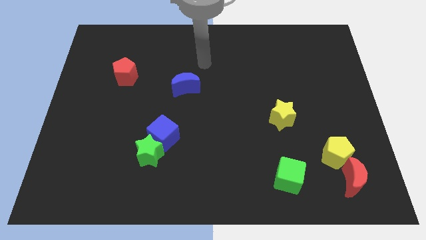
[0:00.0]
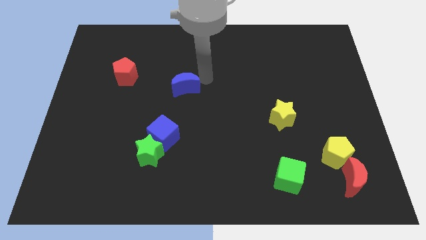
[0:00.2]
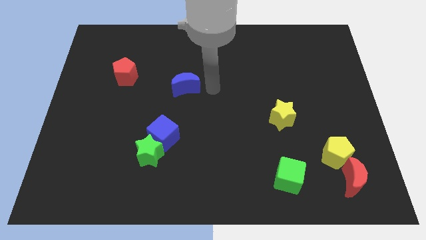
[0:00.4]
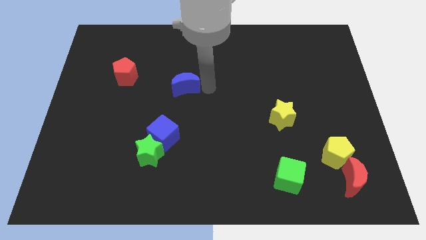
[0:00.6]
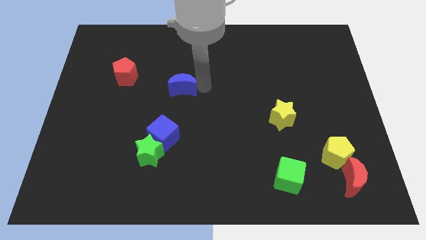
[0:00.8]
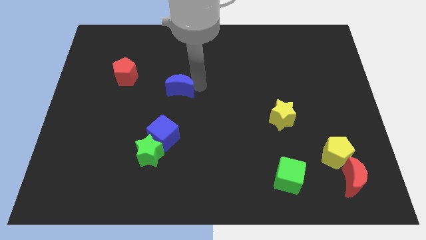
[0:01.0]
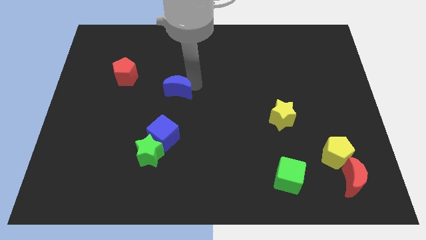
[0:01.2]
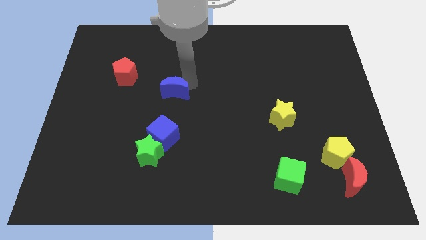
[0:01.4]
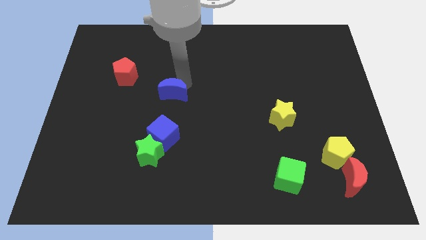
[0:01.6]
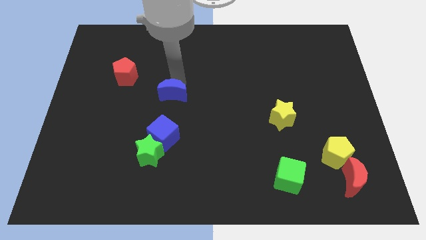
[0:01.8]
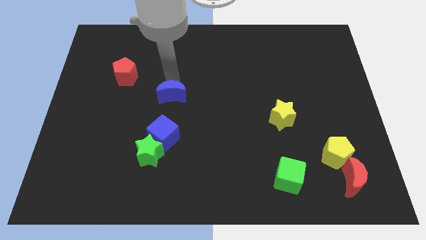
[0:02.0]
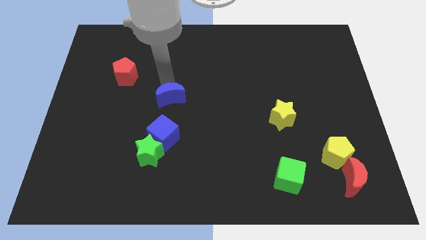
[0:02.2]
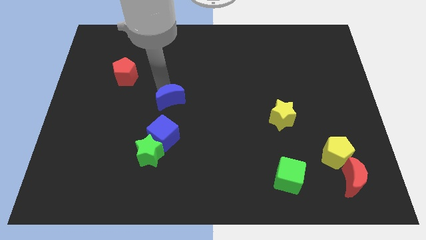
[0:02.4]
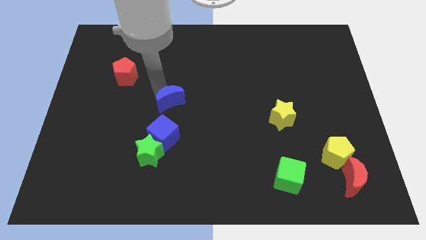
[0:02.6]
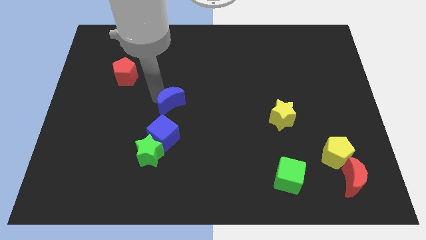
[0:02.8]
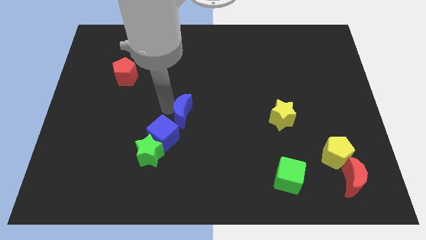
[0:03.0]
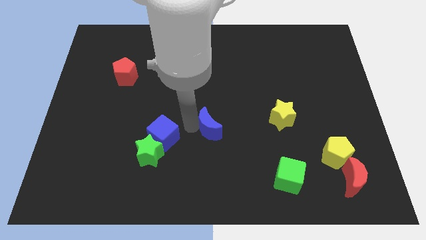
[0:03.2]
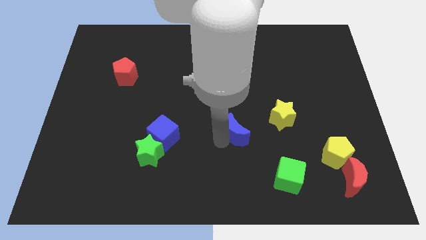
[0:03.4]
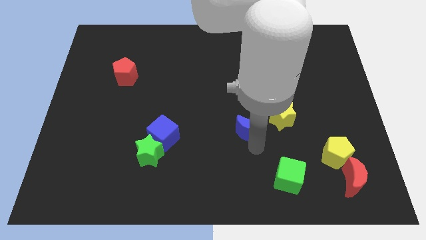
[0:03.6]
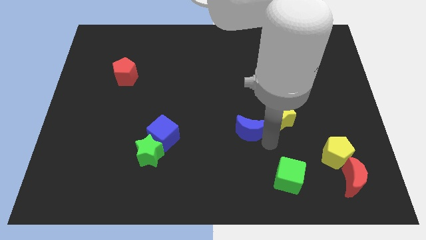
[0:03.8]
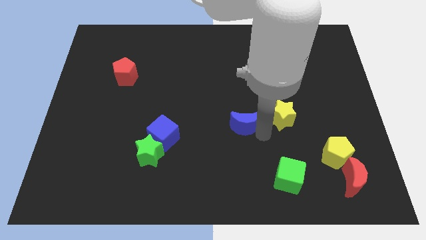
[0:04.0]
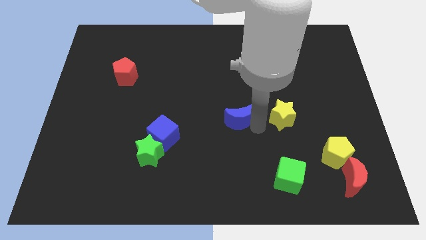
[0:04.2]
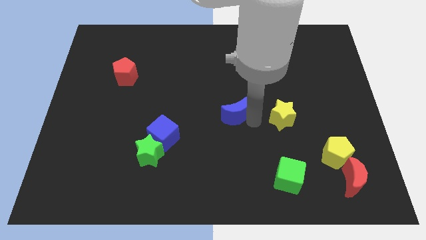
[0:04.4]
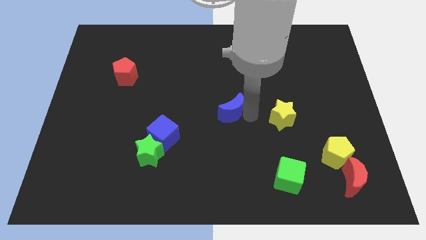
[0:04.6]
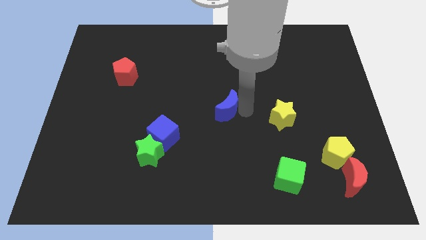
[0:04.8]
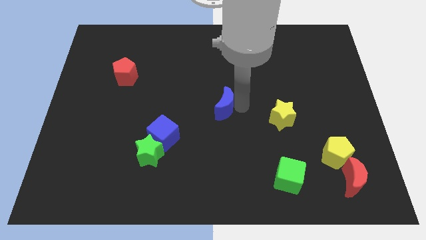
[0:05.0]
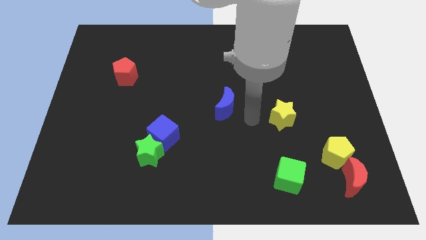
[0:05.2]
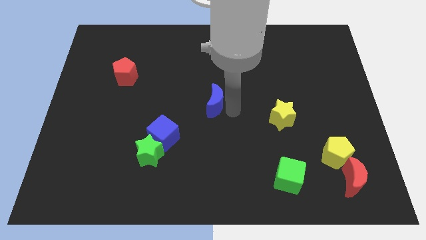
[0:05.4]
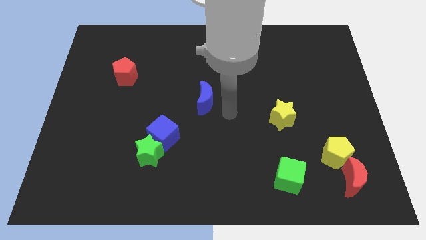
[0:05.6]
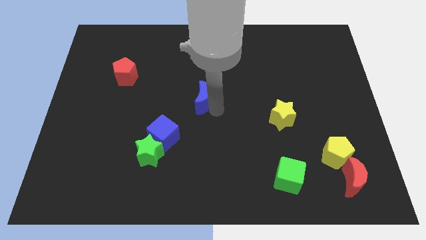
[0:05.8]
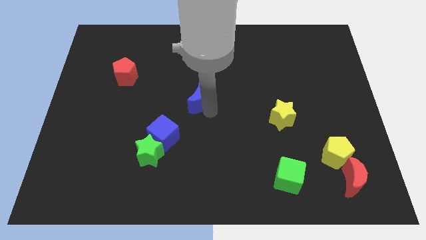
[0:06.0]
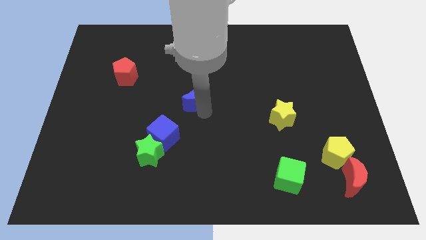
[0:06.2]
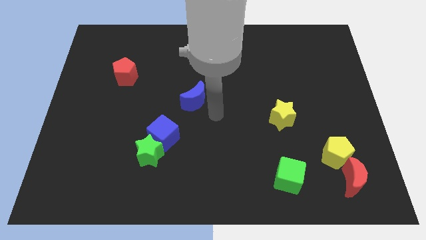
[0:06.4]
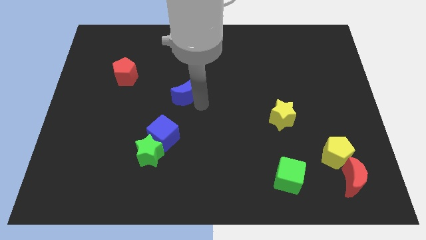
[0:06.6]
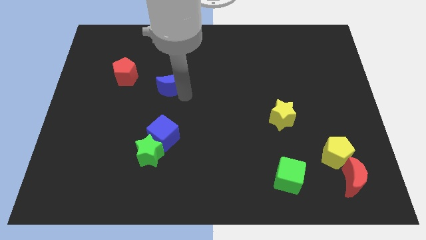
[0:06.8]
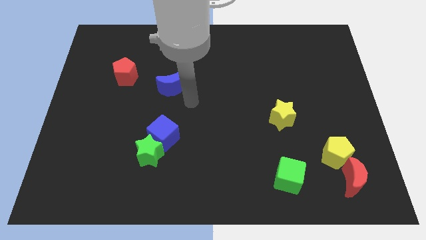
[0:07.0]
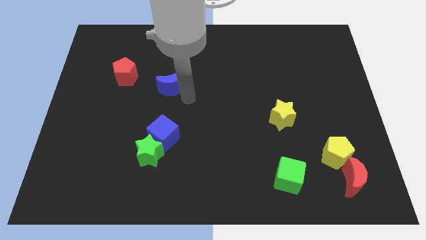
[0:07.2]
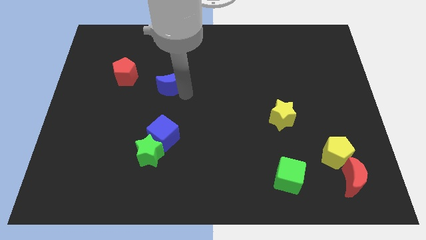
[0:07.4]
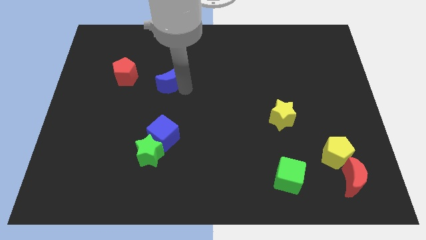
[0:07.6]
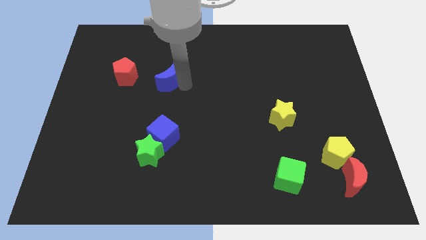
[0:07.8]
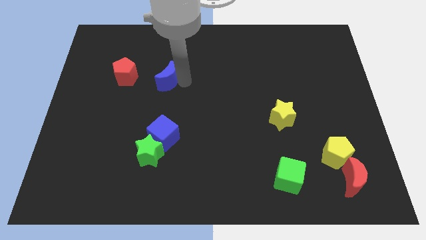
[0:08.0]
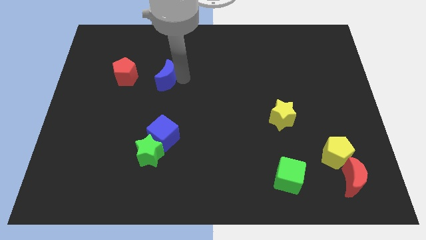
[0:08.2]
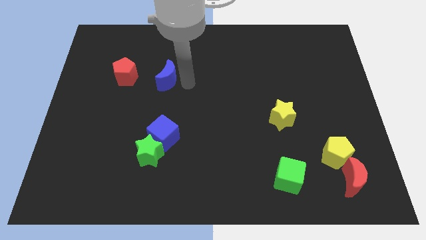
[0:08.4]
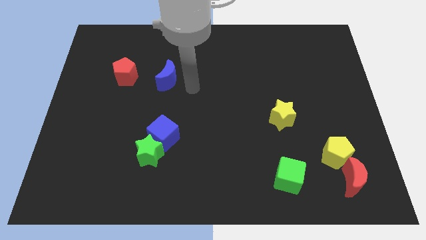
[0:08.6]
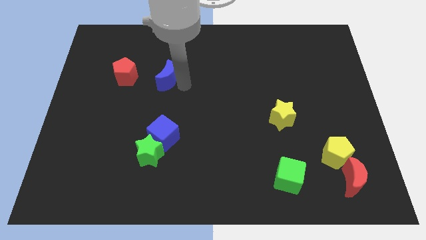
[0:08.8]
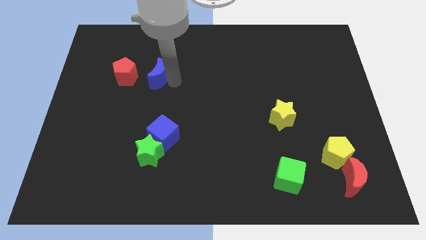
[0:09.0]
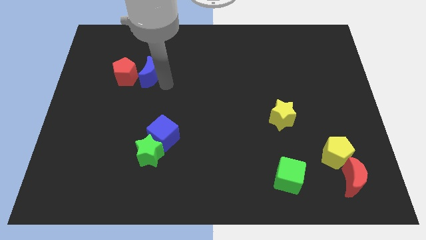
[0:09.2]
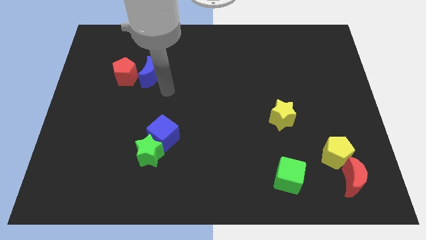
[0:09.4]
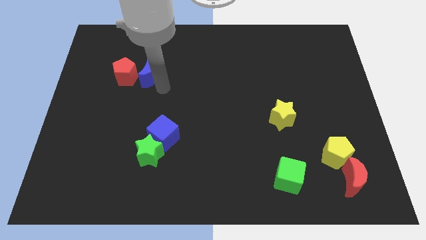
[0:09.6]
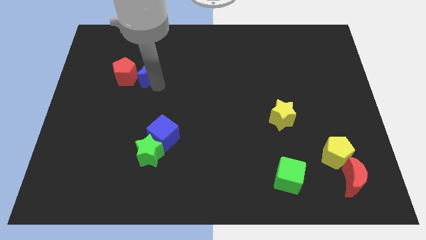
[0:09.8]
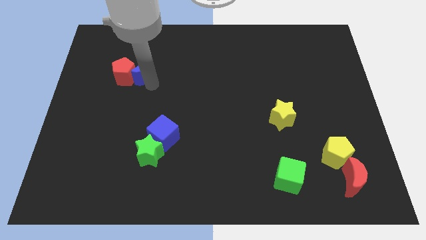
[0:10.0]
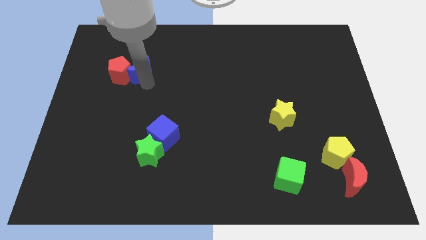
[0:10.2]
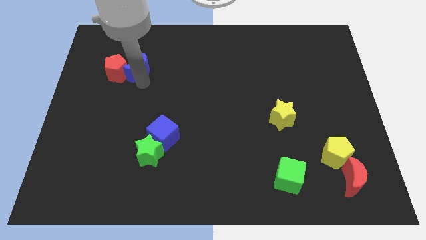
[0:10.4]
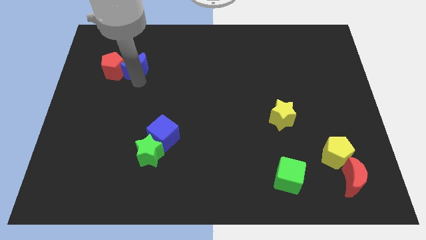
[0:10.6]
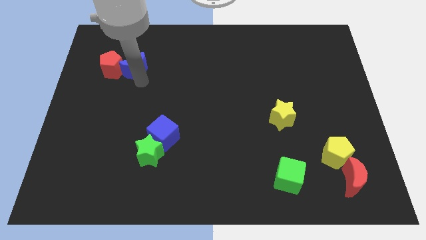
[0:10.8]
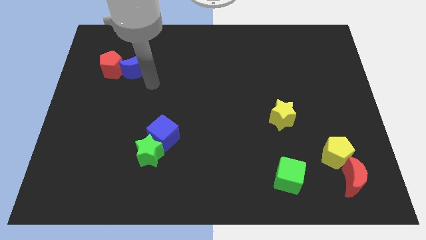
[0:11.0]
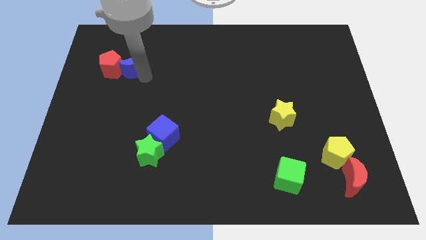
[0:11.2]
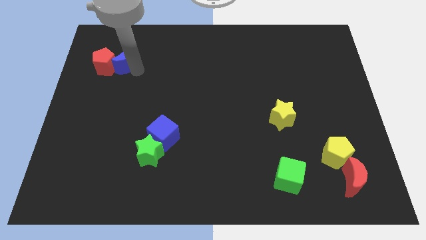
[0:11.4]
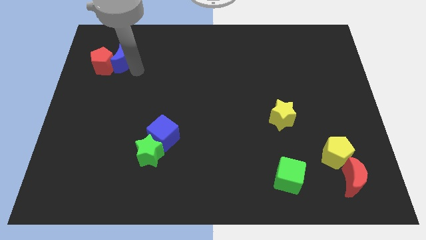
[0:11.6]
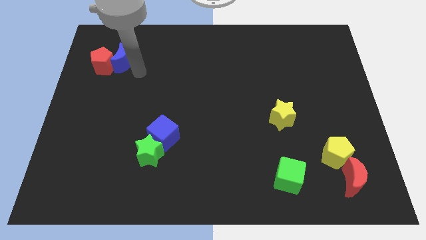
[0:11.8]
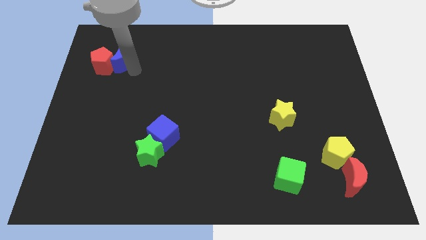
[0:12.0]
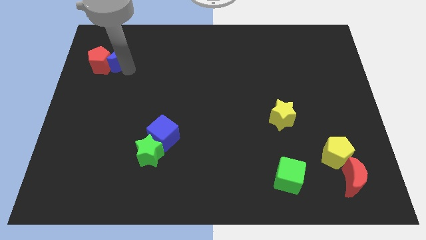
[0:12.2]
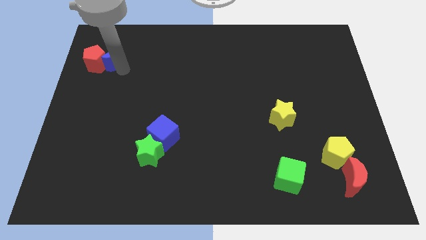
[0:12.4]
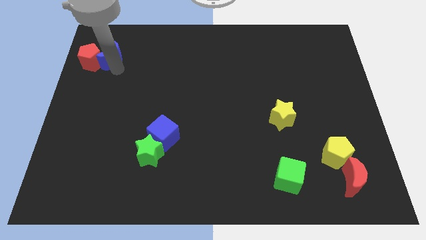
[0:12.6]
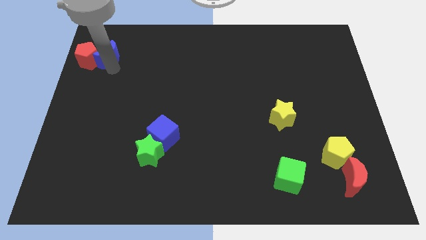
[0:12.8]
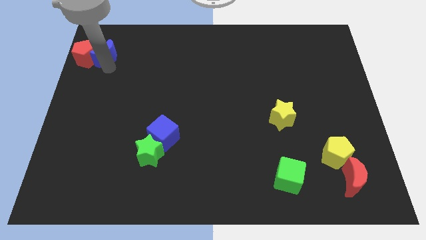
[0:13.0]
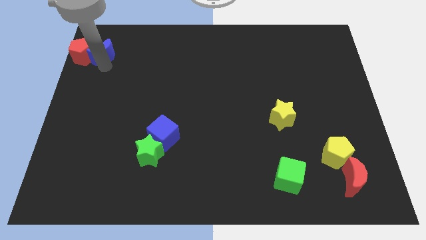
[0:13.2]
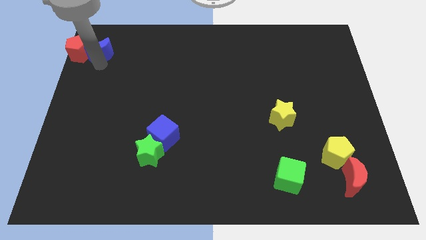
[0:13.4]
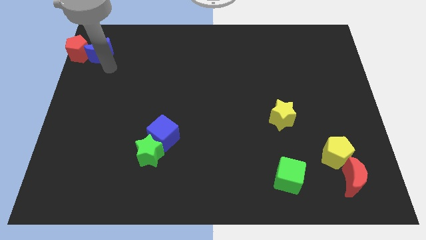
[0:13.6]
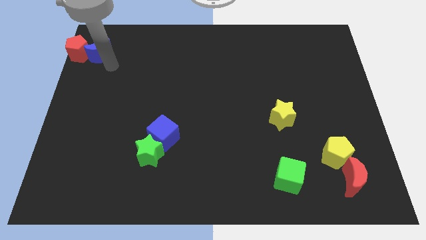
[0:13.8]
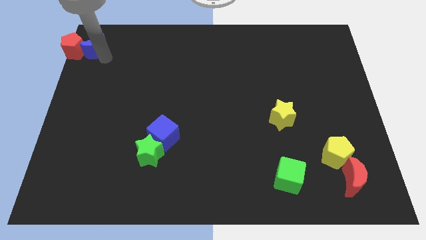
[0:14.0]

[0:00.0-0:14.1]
move the blue moon to the upper left corner

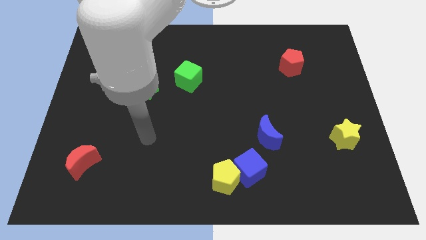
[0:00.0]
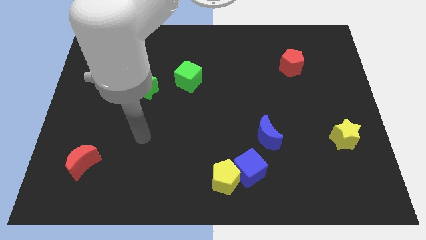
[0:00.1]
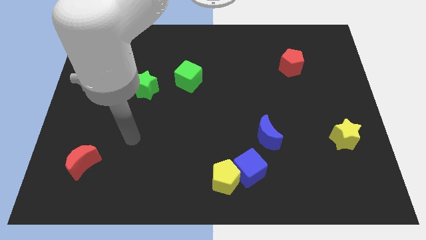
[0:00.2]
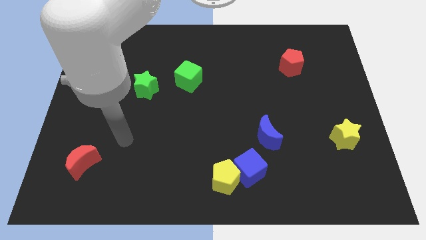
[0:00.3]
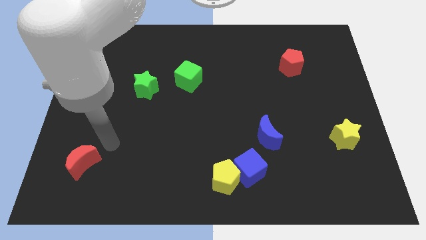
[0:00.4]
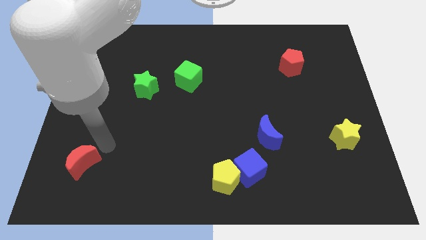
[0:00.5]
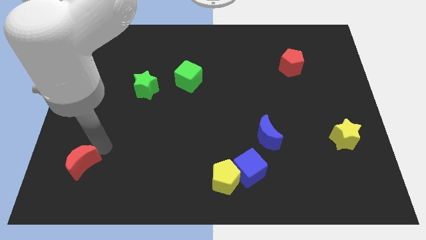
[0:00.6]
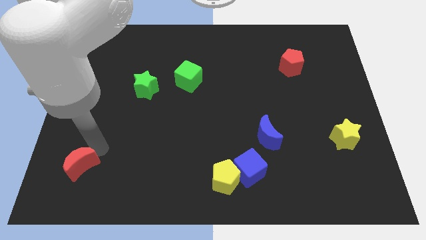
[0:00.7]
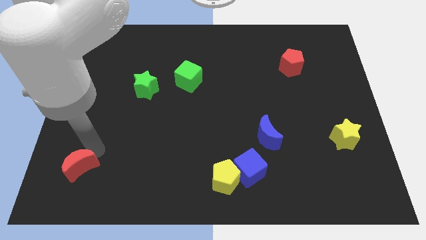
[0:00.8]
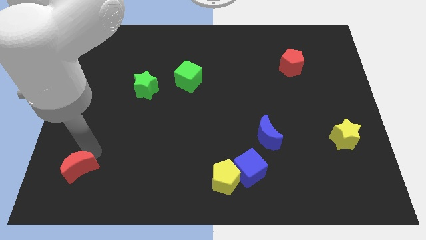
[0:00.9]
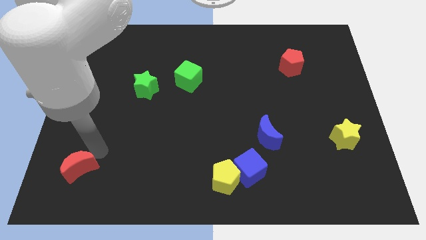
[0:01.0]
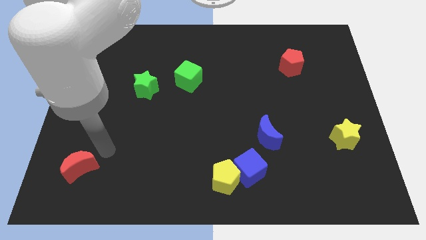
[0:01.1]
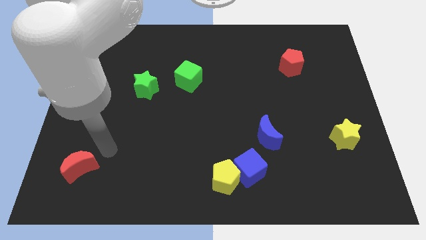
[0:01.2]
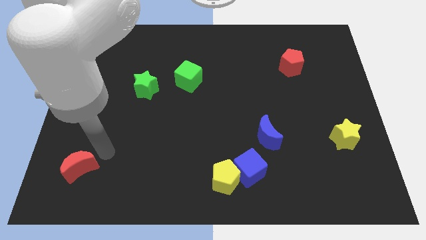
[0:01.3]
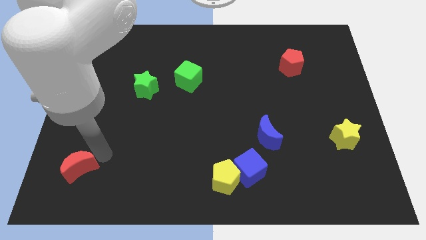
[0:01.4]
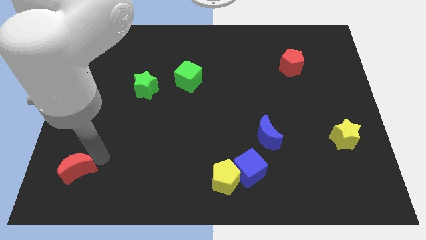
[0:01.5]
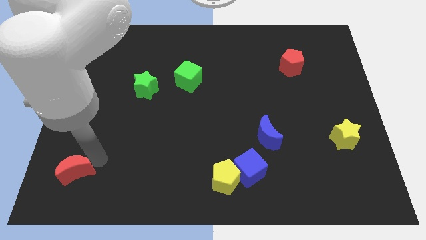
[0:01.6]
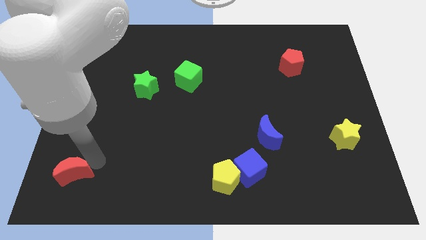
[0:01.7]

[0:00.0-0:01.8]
slide the red moon to the lower left corner
